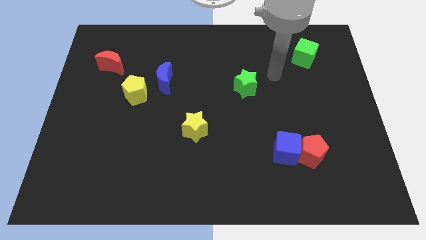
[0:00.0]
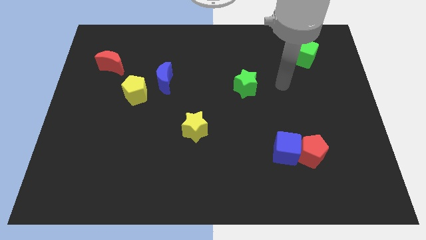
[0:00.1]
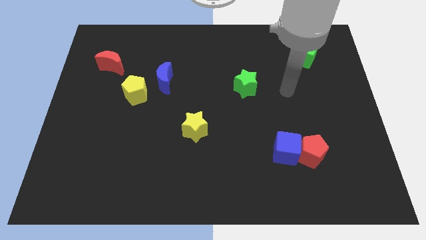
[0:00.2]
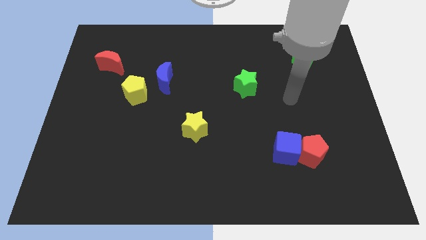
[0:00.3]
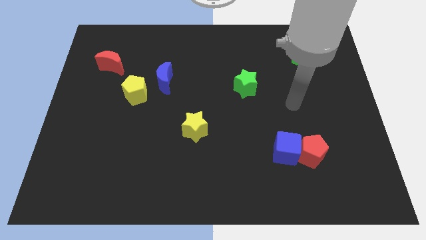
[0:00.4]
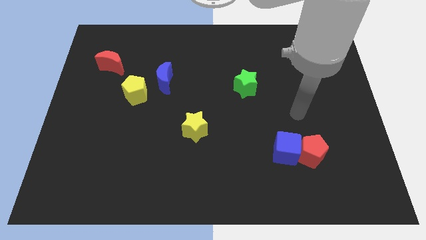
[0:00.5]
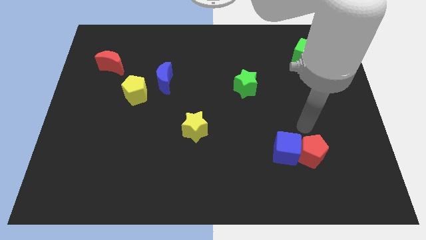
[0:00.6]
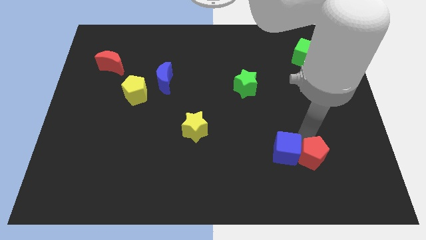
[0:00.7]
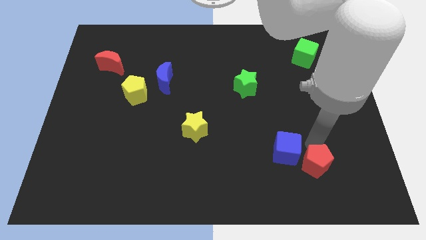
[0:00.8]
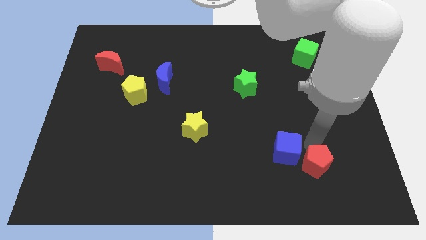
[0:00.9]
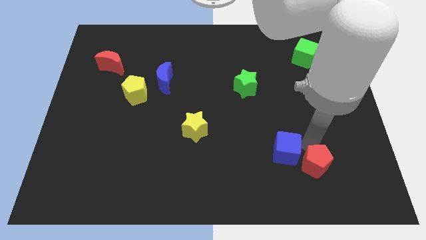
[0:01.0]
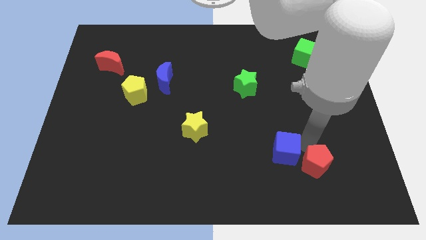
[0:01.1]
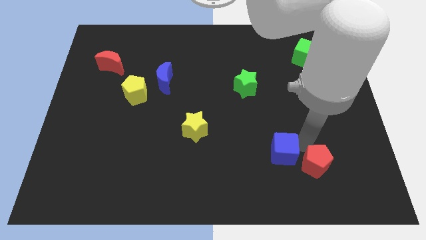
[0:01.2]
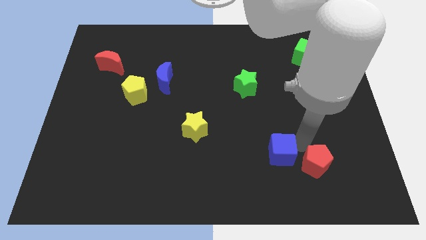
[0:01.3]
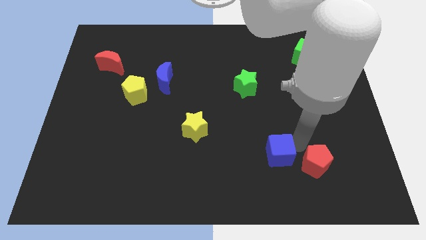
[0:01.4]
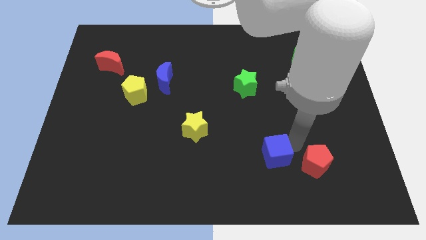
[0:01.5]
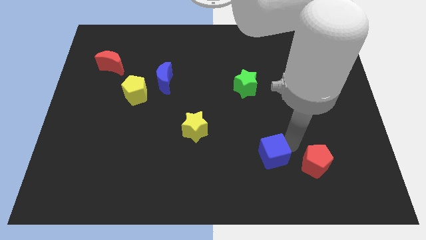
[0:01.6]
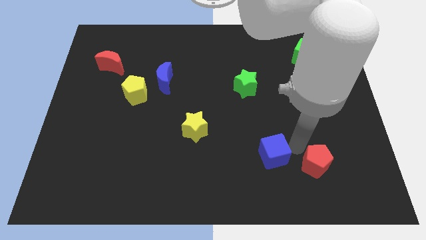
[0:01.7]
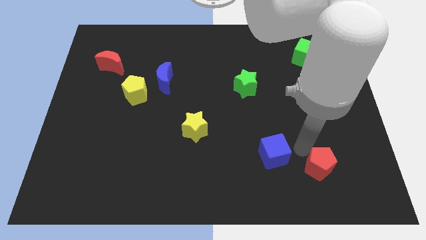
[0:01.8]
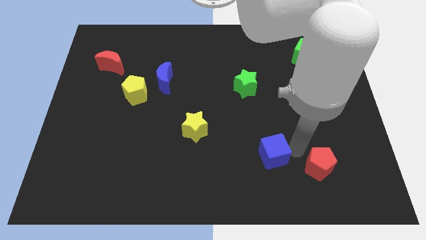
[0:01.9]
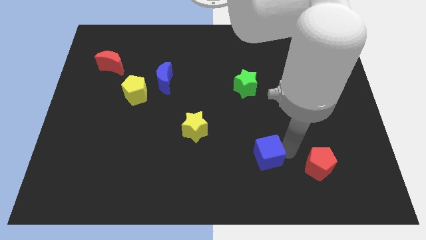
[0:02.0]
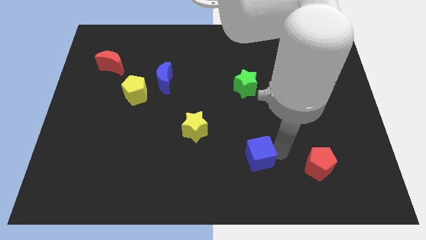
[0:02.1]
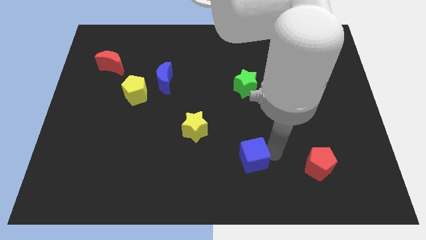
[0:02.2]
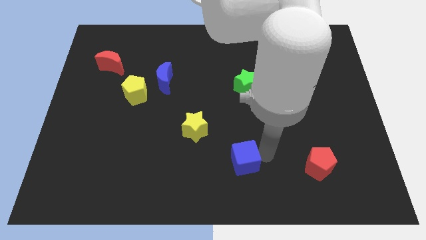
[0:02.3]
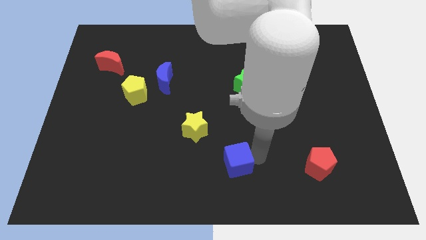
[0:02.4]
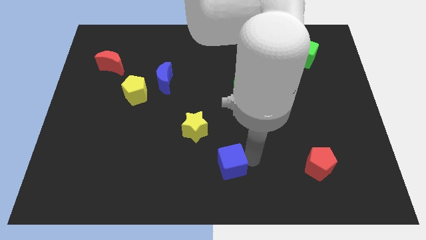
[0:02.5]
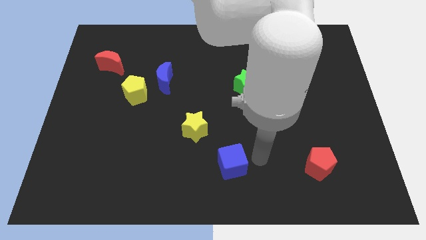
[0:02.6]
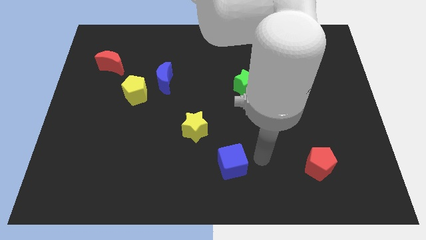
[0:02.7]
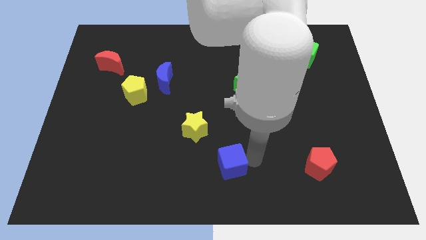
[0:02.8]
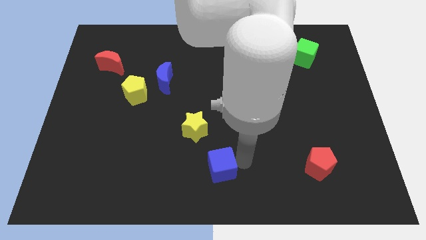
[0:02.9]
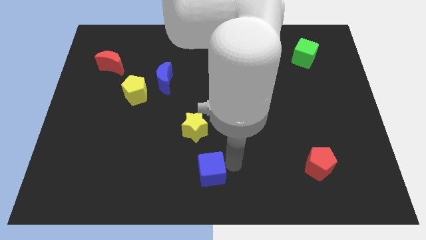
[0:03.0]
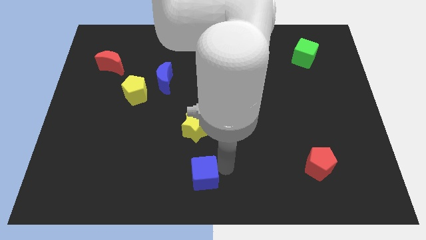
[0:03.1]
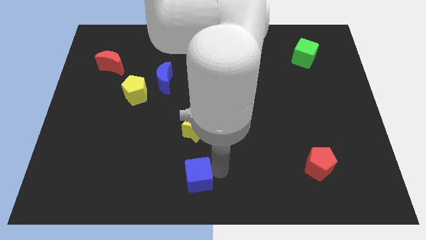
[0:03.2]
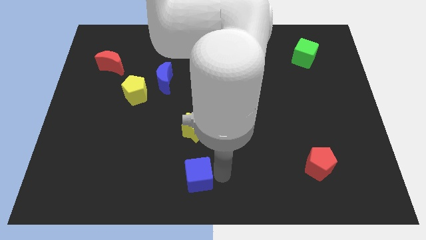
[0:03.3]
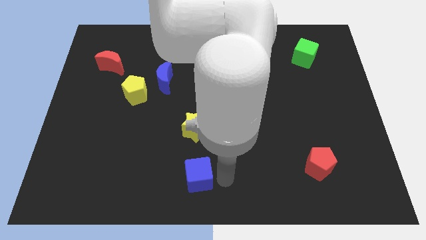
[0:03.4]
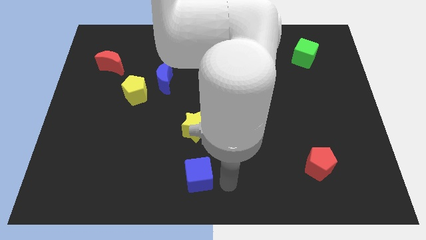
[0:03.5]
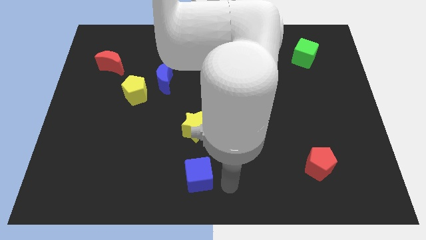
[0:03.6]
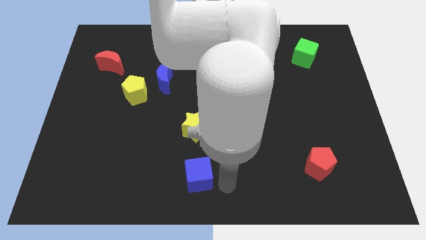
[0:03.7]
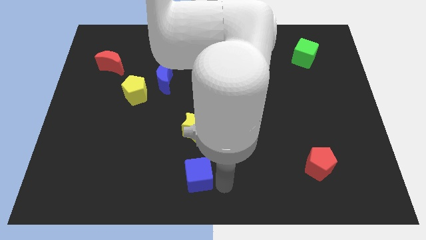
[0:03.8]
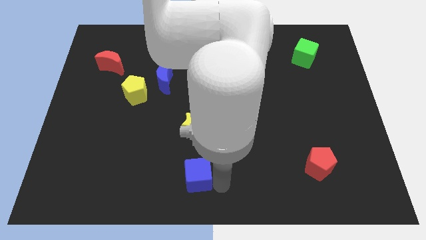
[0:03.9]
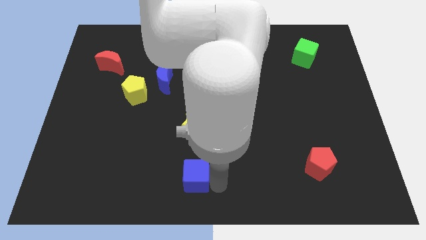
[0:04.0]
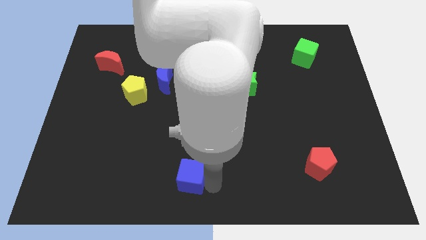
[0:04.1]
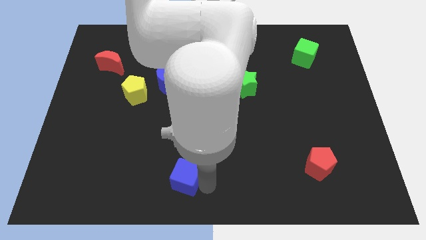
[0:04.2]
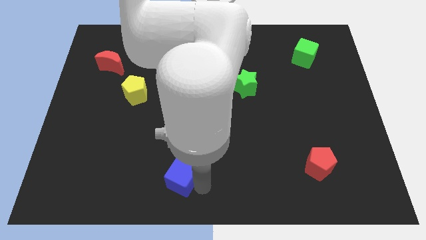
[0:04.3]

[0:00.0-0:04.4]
move the blue cube to the left

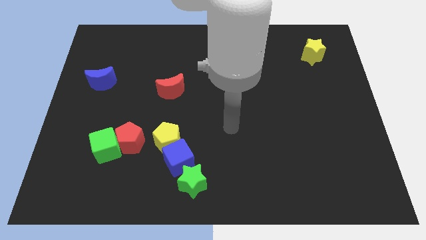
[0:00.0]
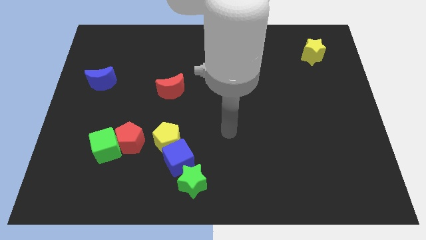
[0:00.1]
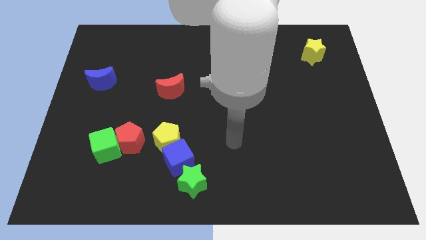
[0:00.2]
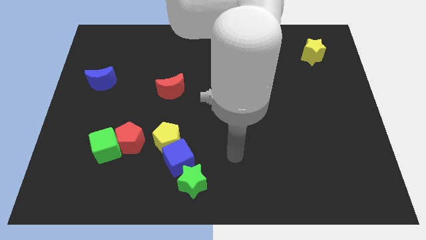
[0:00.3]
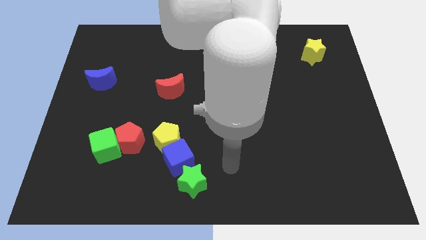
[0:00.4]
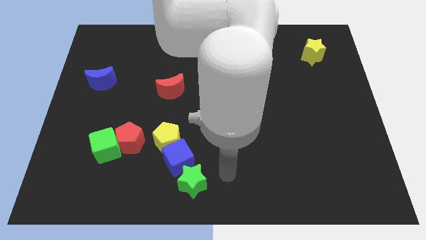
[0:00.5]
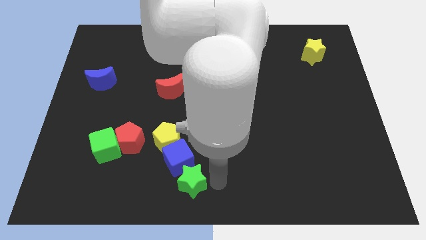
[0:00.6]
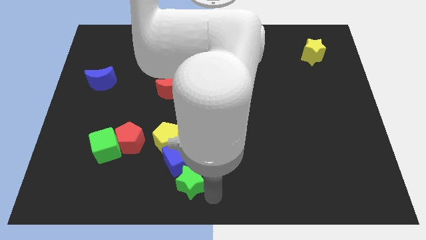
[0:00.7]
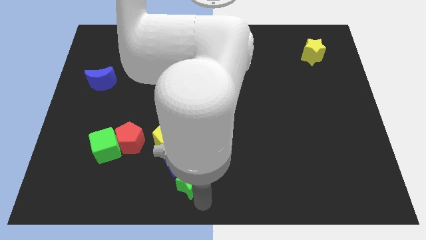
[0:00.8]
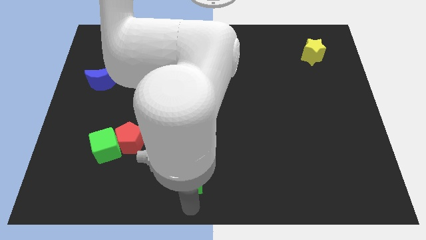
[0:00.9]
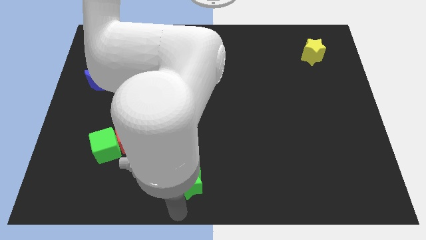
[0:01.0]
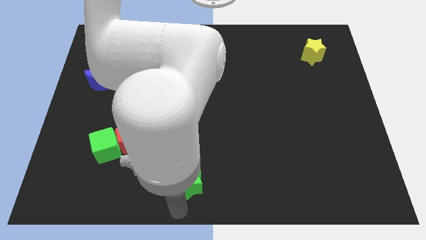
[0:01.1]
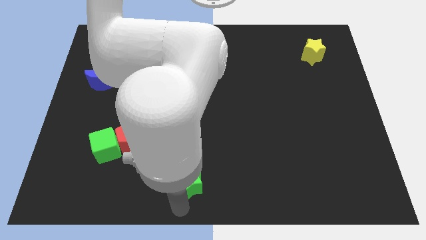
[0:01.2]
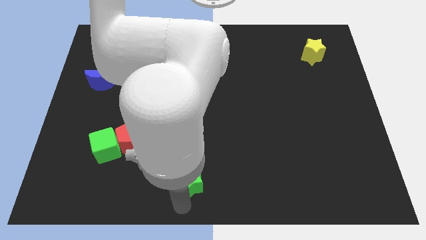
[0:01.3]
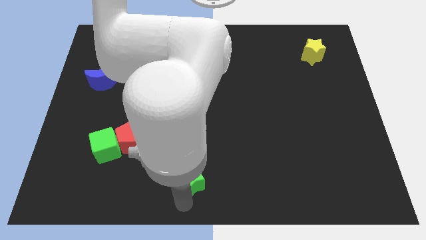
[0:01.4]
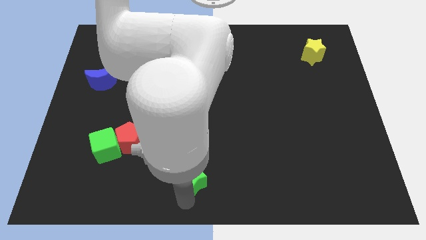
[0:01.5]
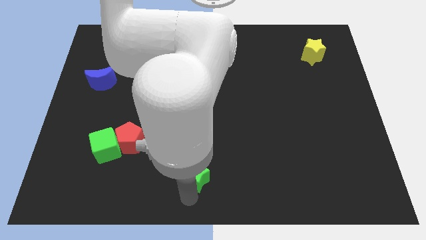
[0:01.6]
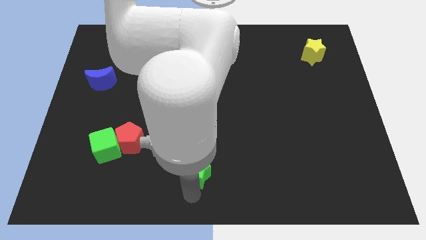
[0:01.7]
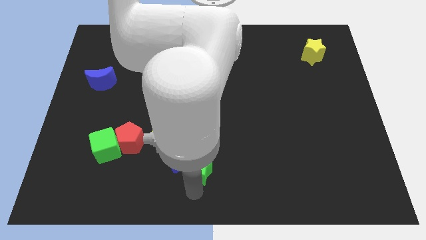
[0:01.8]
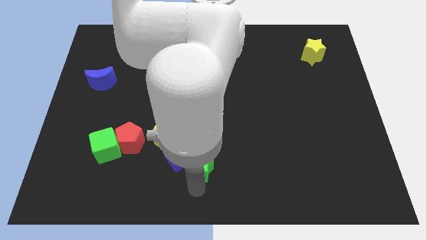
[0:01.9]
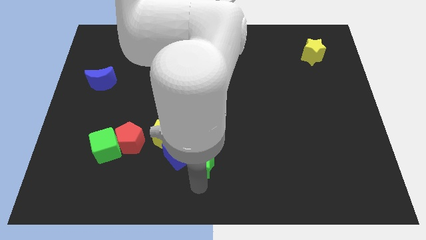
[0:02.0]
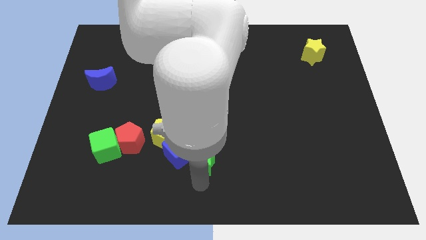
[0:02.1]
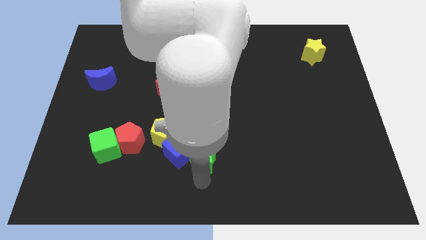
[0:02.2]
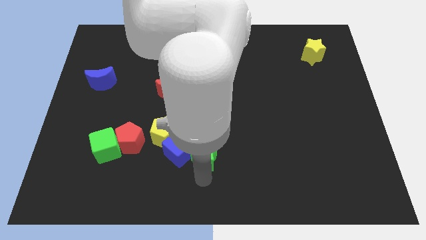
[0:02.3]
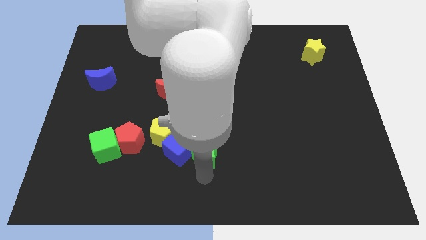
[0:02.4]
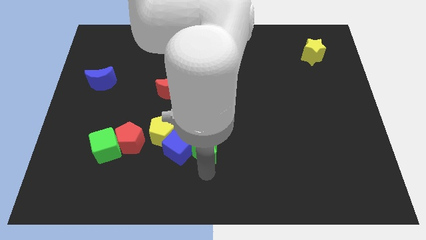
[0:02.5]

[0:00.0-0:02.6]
slide the green star upwards slightly

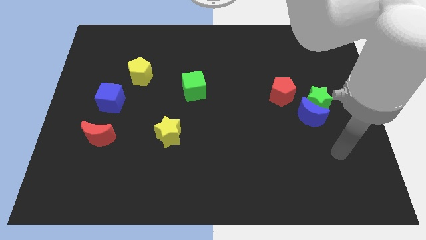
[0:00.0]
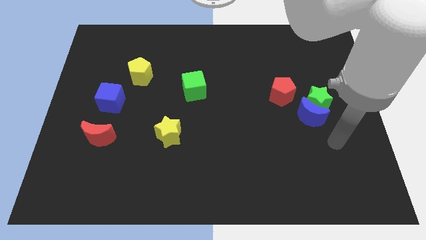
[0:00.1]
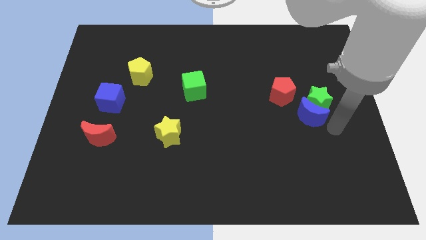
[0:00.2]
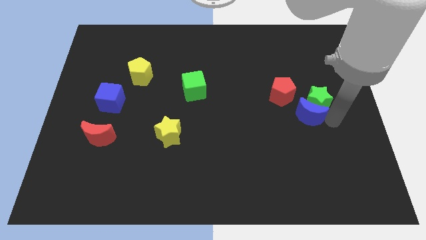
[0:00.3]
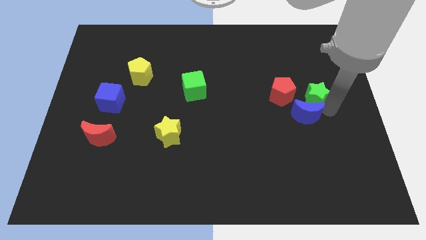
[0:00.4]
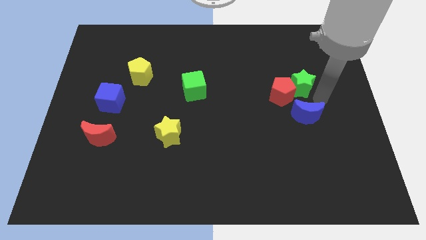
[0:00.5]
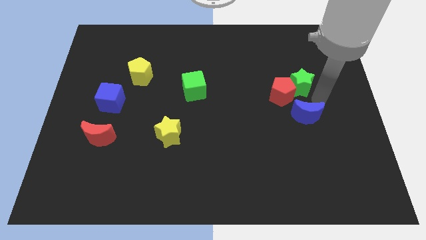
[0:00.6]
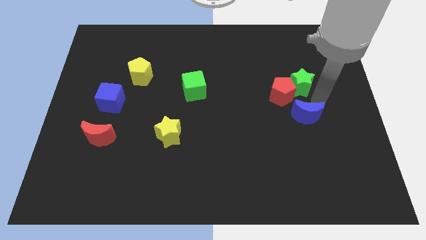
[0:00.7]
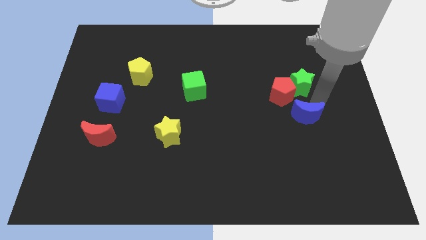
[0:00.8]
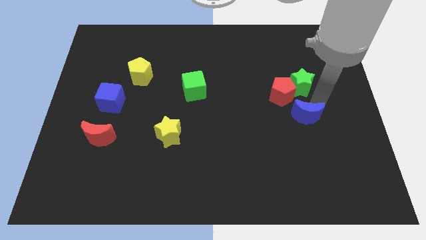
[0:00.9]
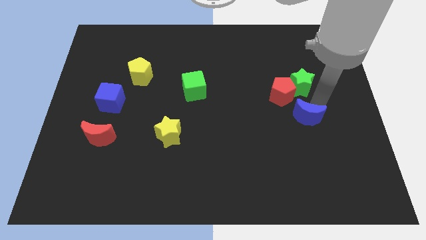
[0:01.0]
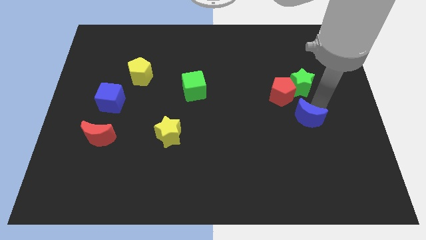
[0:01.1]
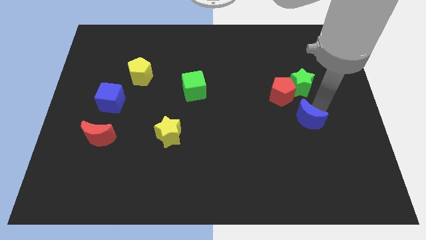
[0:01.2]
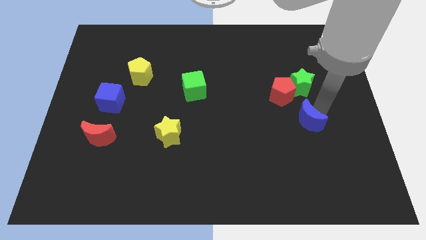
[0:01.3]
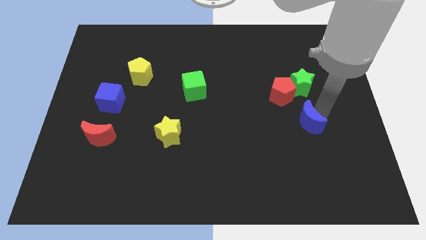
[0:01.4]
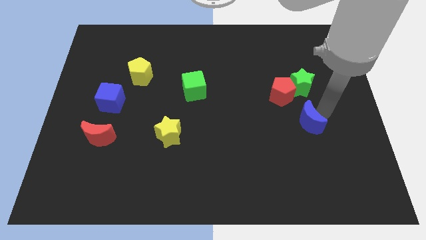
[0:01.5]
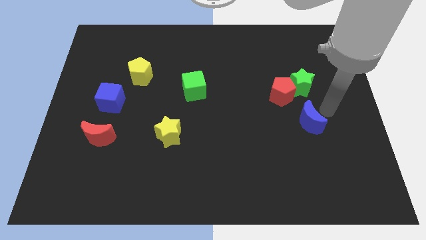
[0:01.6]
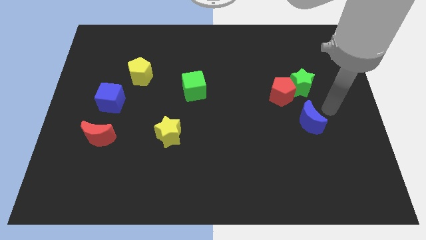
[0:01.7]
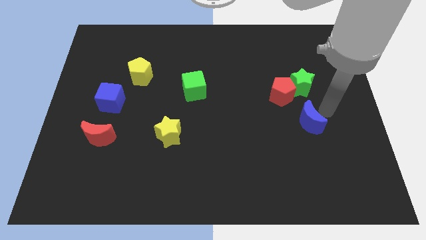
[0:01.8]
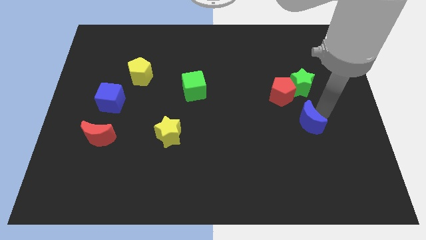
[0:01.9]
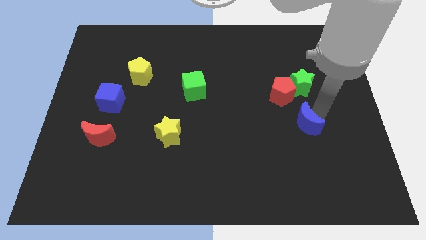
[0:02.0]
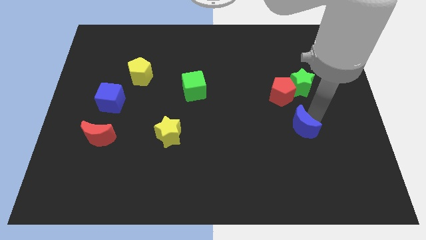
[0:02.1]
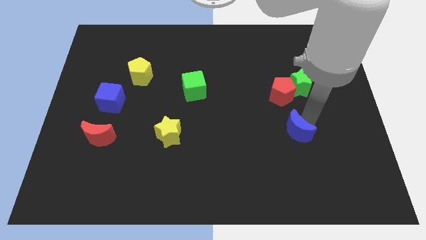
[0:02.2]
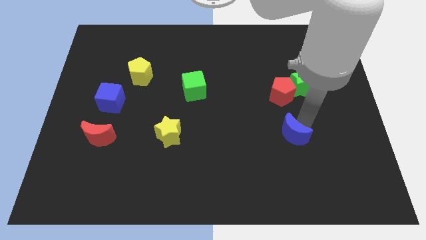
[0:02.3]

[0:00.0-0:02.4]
slightly push the blue moon diagonally down and left
